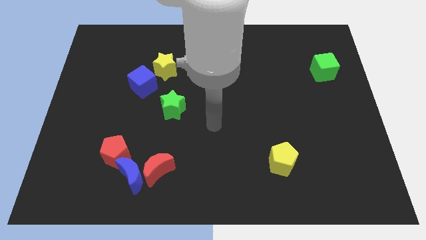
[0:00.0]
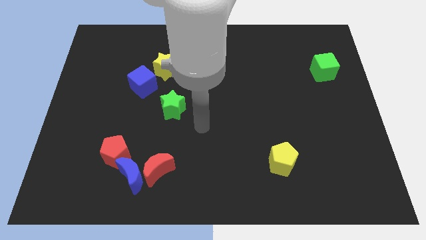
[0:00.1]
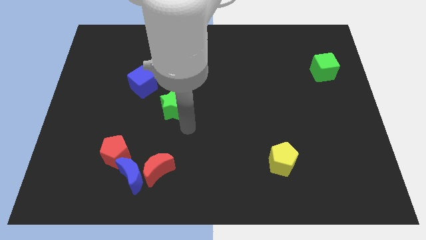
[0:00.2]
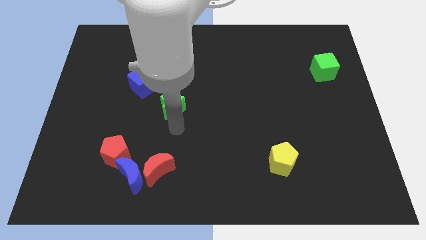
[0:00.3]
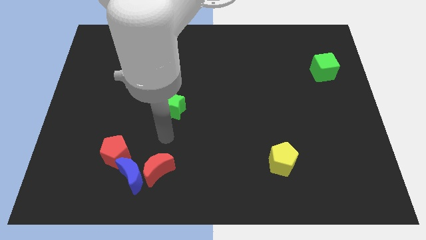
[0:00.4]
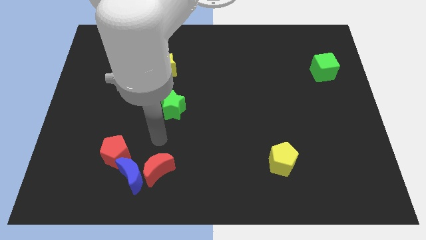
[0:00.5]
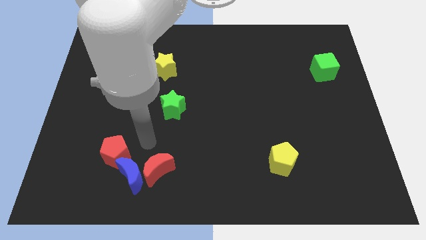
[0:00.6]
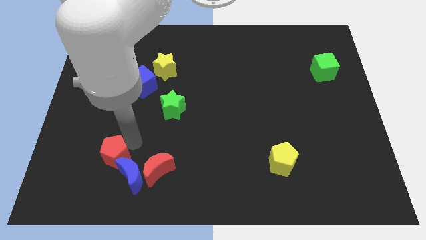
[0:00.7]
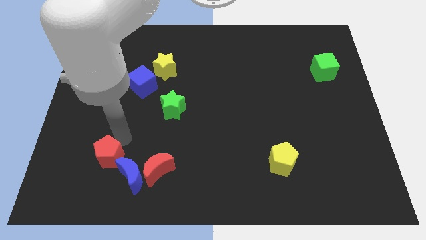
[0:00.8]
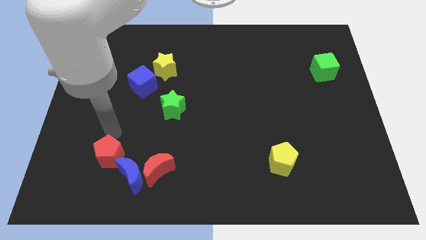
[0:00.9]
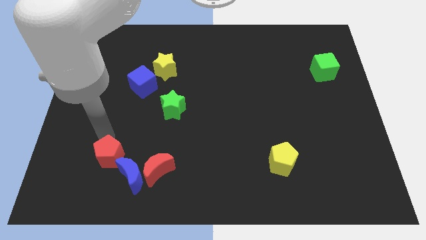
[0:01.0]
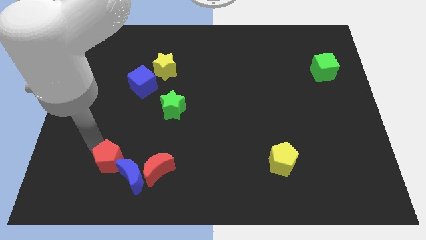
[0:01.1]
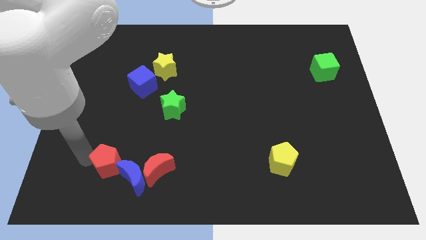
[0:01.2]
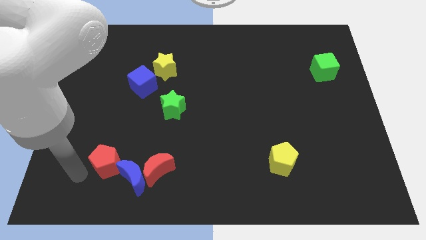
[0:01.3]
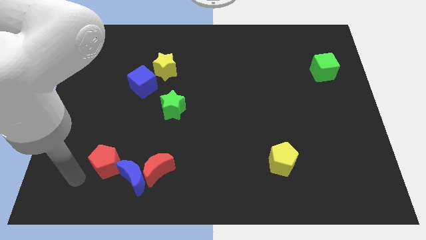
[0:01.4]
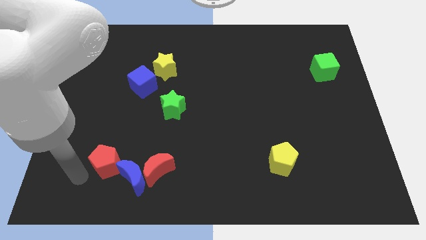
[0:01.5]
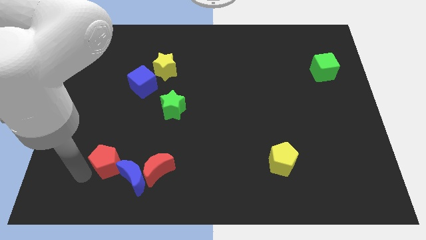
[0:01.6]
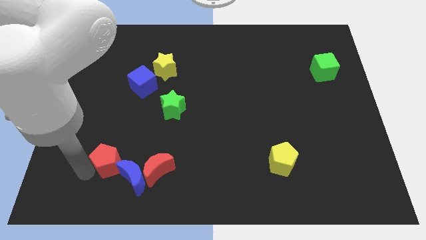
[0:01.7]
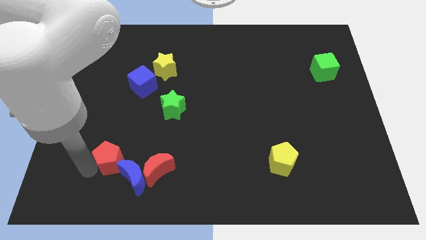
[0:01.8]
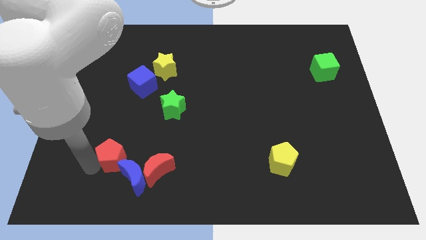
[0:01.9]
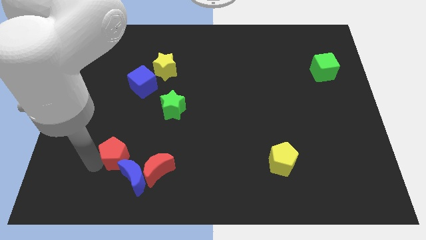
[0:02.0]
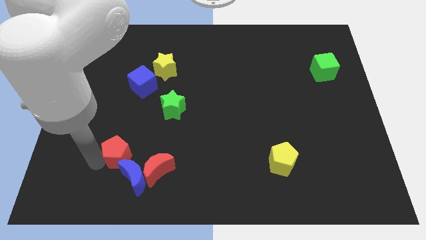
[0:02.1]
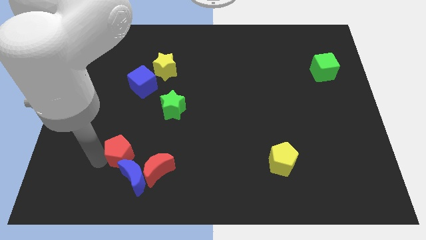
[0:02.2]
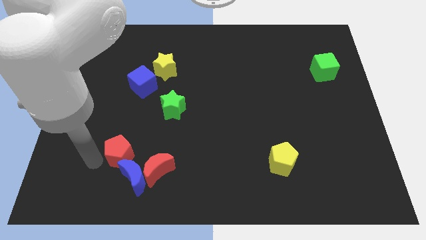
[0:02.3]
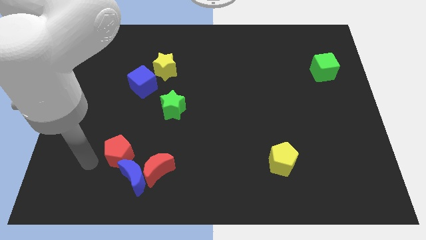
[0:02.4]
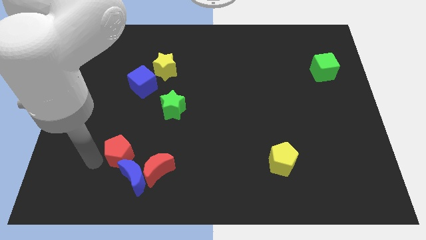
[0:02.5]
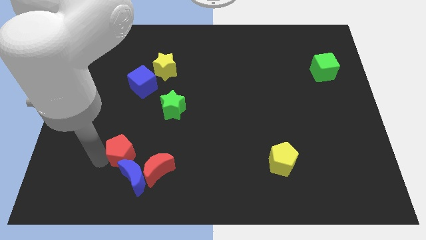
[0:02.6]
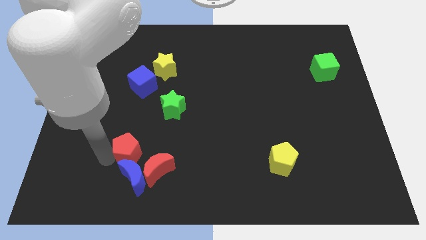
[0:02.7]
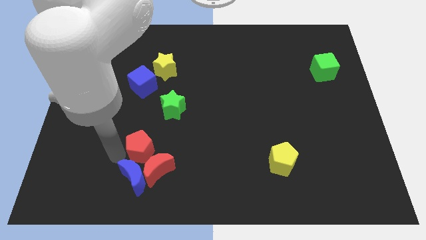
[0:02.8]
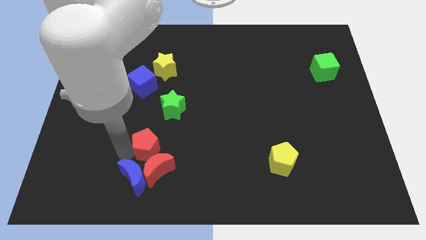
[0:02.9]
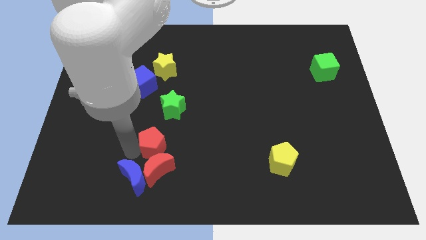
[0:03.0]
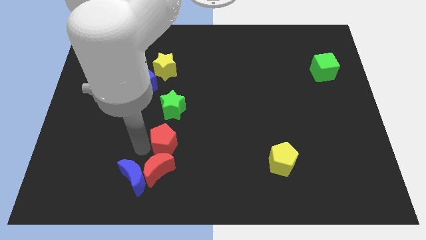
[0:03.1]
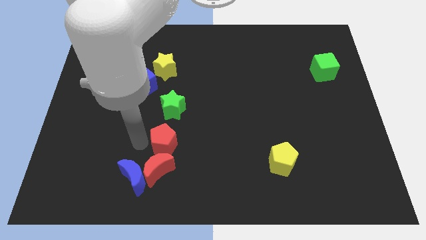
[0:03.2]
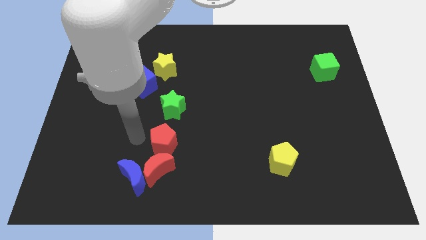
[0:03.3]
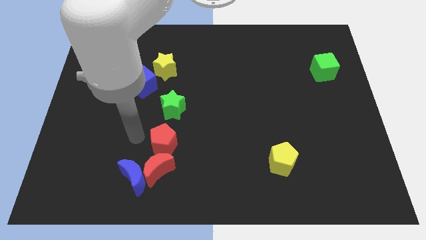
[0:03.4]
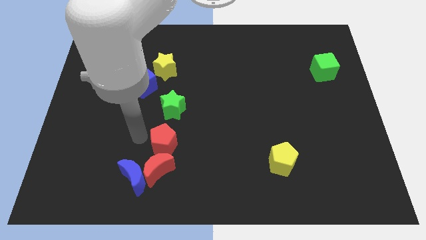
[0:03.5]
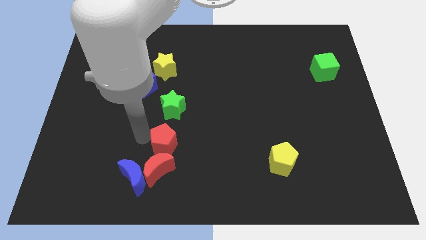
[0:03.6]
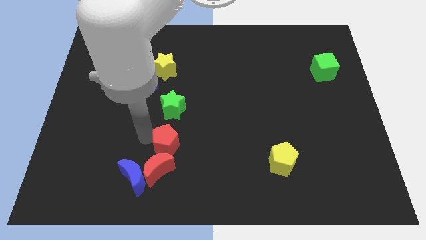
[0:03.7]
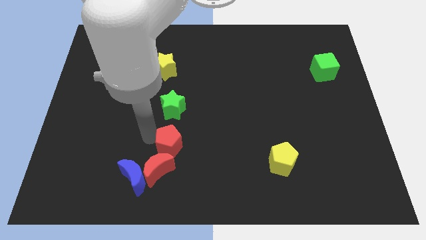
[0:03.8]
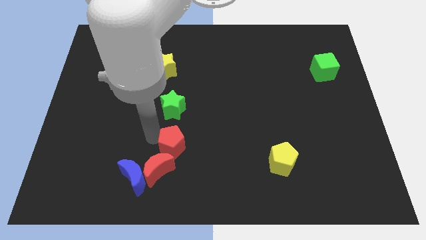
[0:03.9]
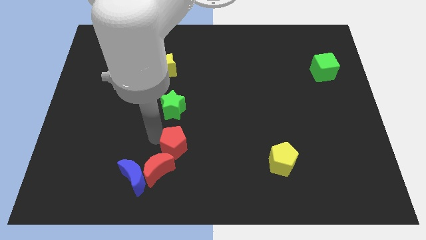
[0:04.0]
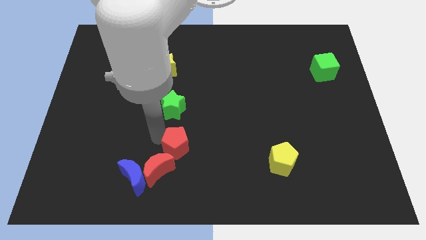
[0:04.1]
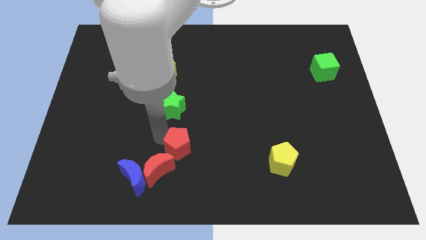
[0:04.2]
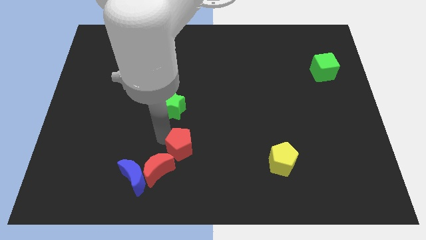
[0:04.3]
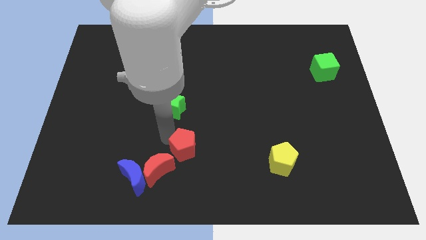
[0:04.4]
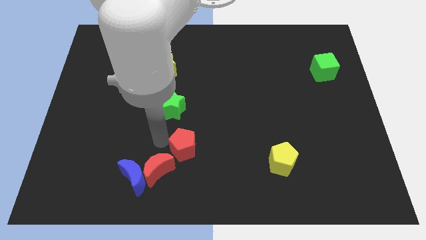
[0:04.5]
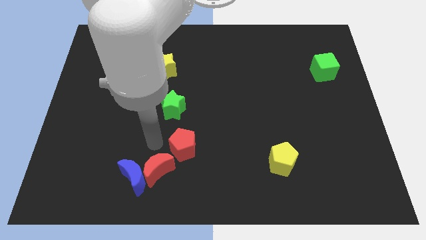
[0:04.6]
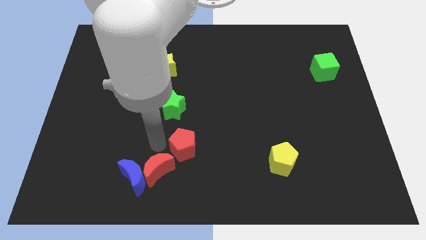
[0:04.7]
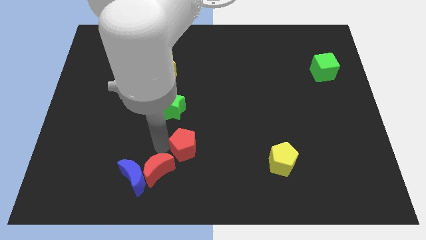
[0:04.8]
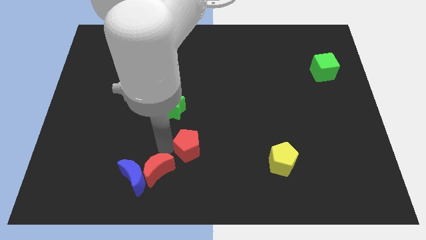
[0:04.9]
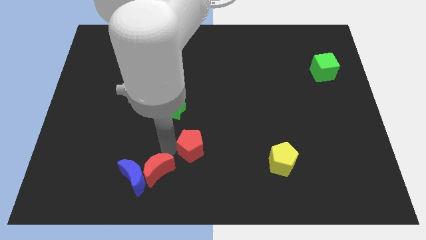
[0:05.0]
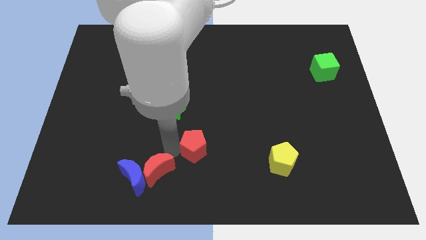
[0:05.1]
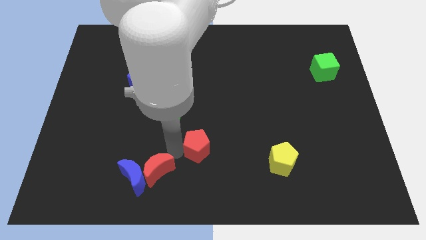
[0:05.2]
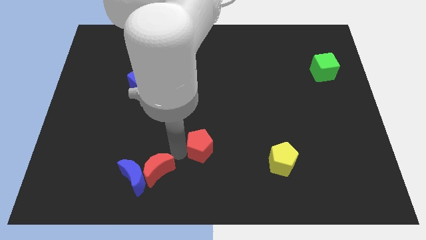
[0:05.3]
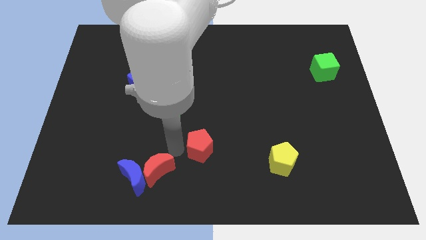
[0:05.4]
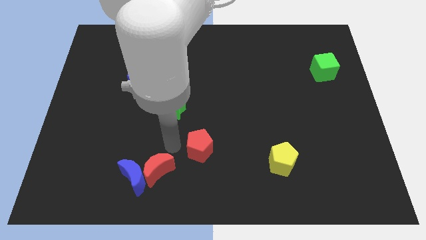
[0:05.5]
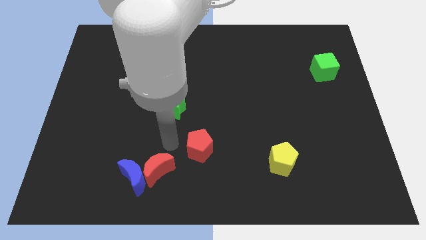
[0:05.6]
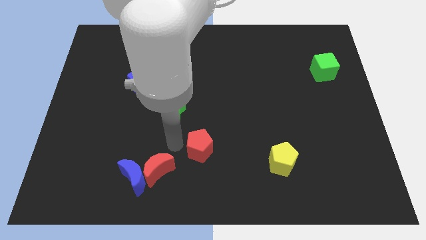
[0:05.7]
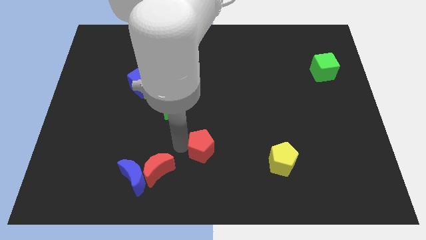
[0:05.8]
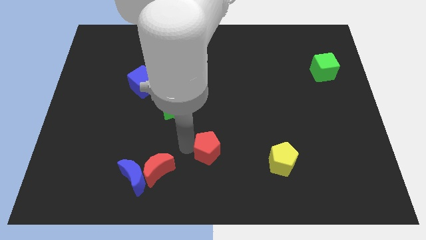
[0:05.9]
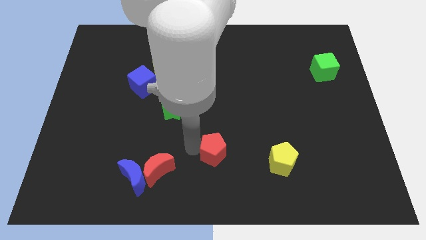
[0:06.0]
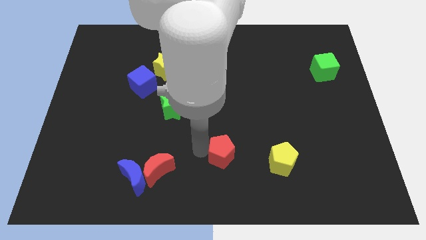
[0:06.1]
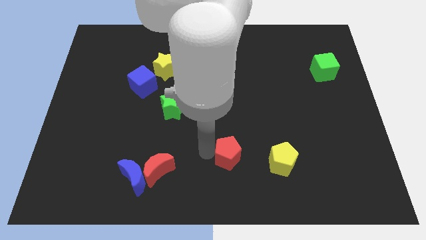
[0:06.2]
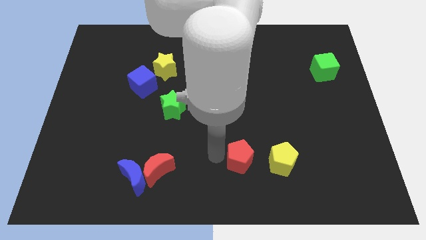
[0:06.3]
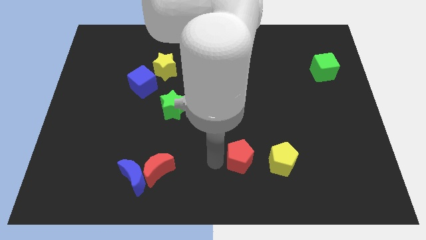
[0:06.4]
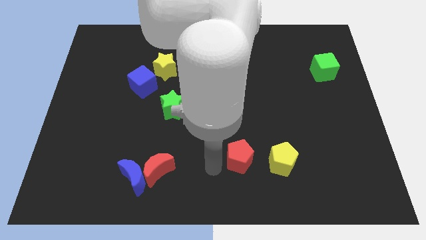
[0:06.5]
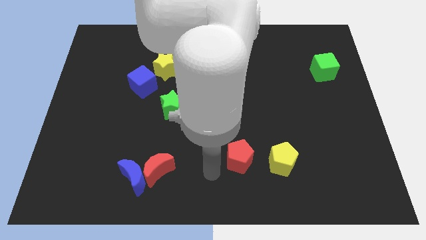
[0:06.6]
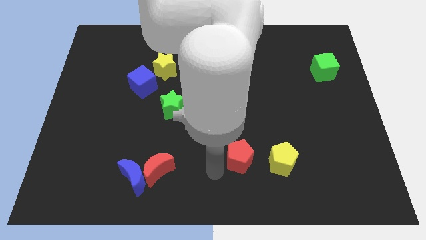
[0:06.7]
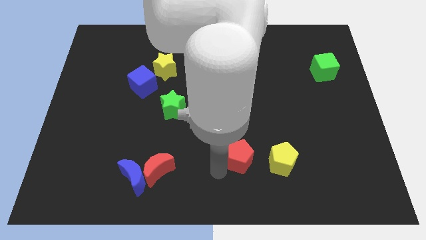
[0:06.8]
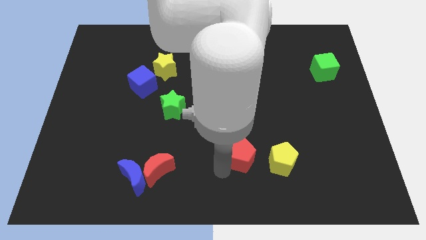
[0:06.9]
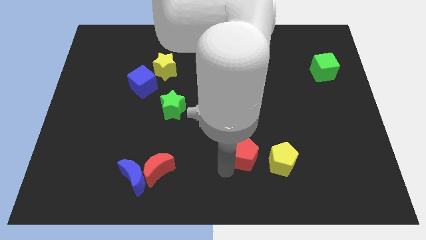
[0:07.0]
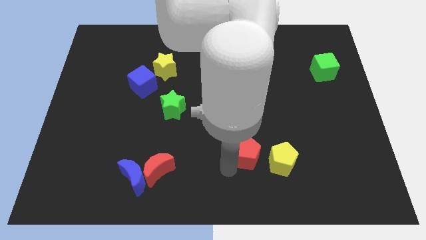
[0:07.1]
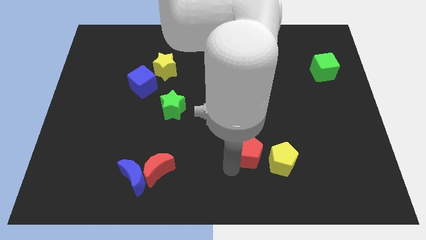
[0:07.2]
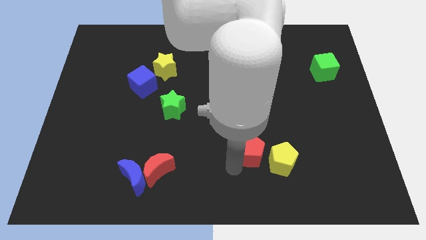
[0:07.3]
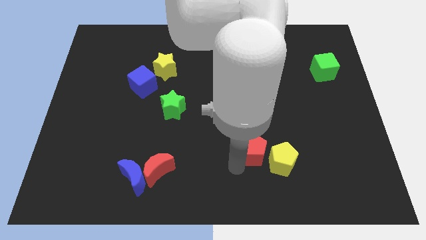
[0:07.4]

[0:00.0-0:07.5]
push the red pentagon towards the yellow pentagon
